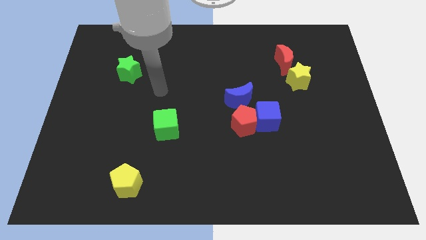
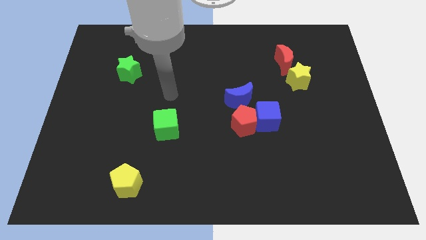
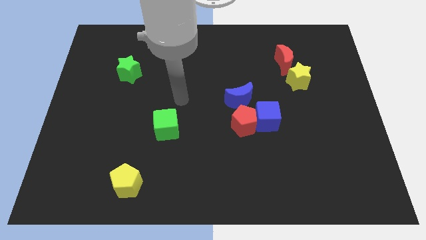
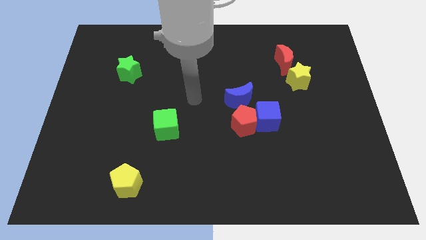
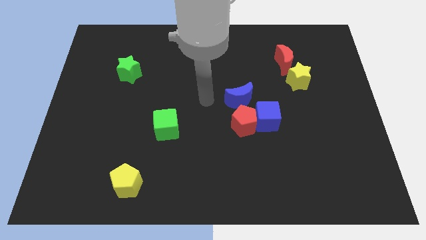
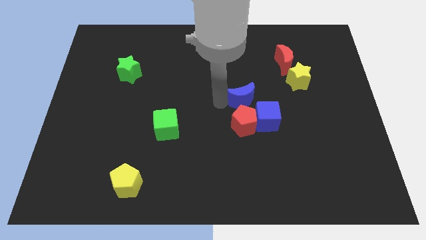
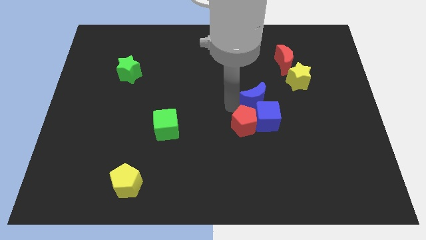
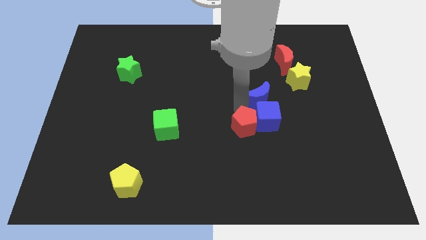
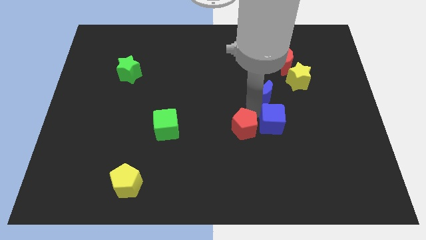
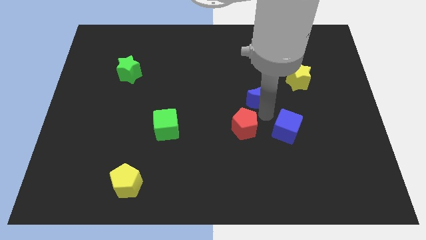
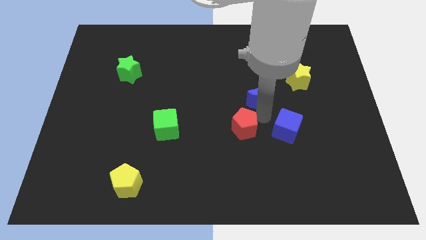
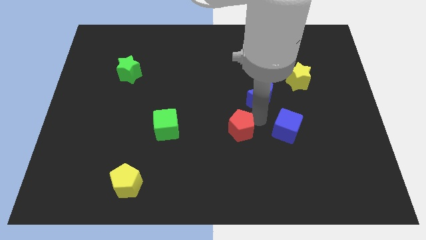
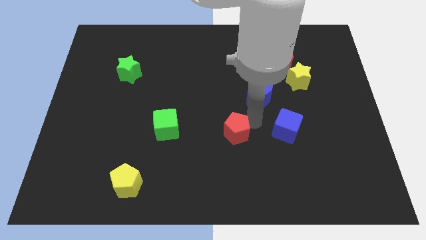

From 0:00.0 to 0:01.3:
pull the red pentagon apart from the blue cube and blue moon

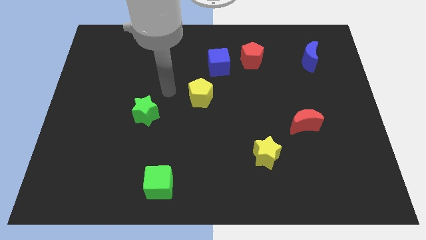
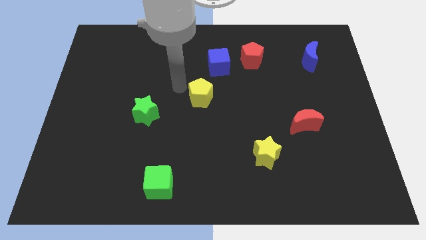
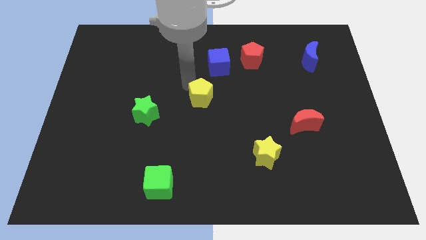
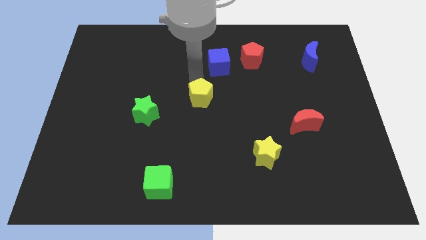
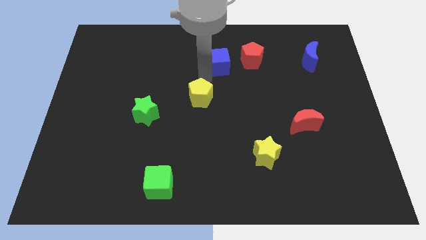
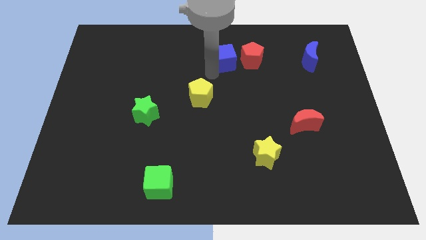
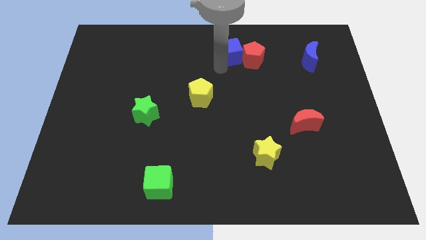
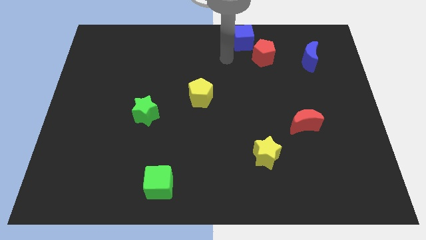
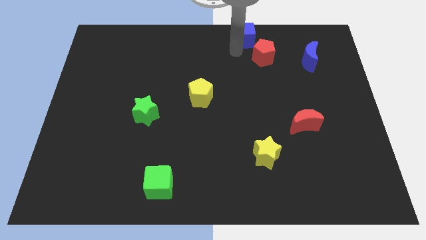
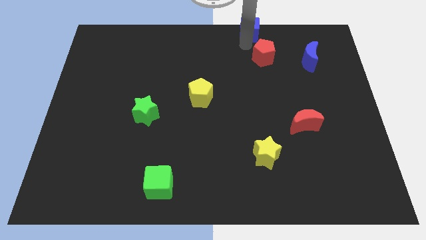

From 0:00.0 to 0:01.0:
pull the red pentagon apart from the blue cube

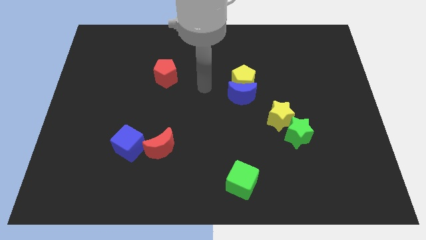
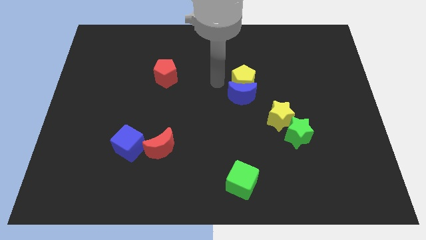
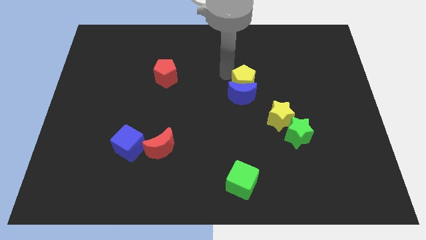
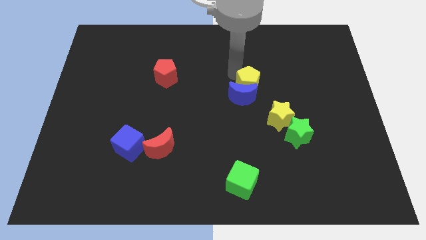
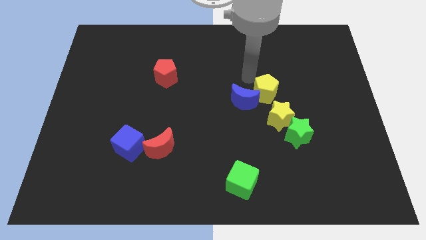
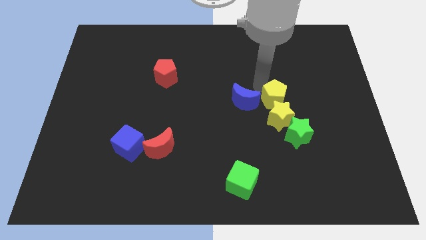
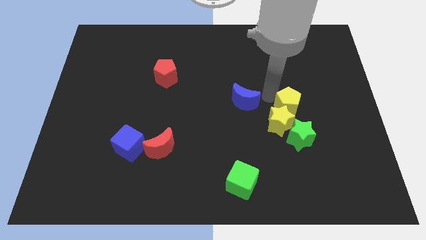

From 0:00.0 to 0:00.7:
move the blue moon away from the yellow pentagon

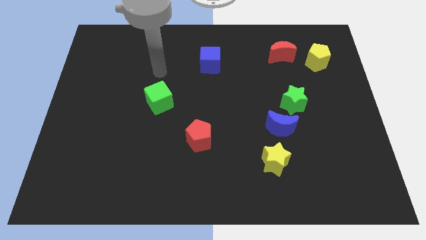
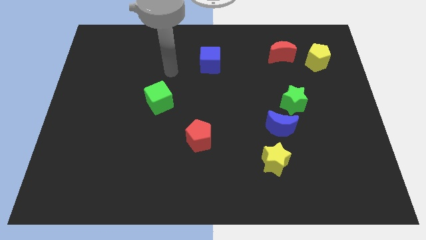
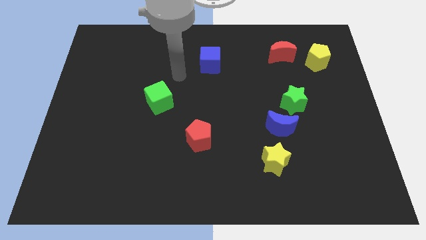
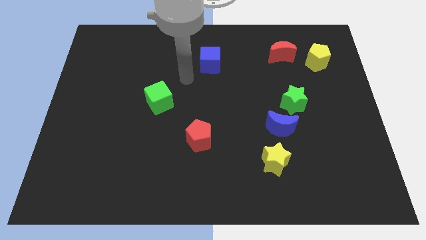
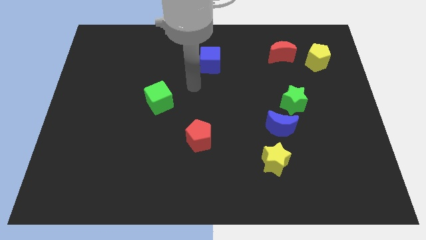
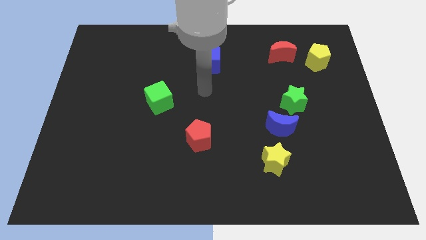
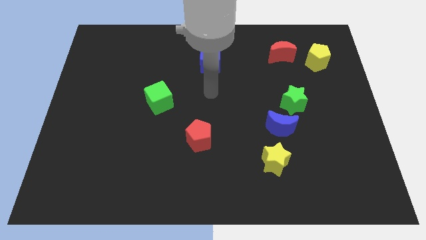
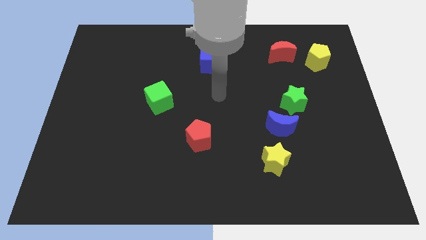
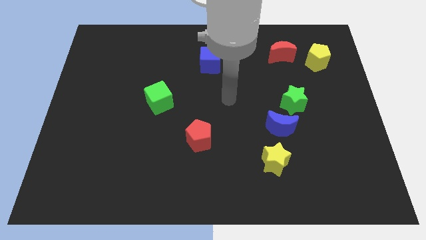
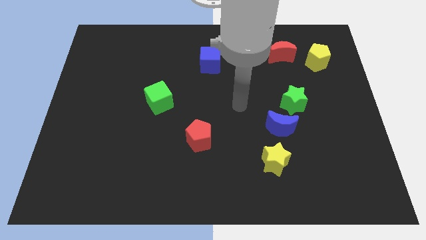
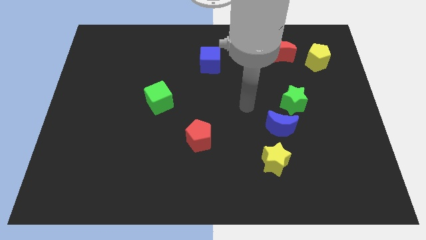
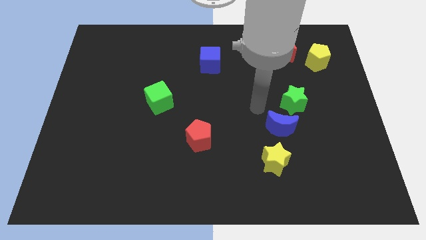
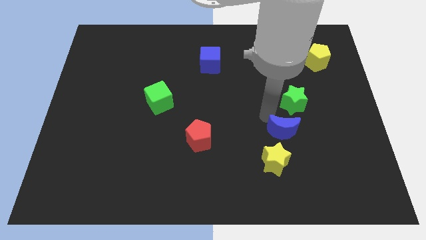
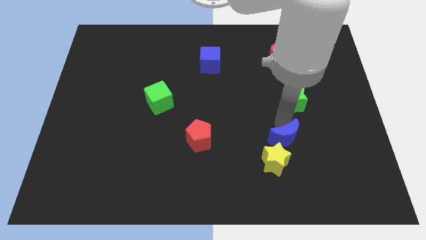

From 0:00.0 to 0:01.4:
move the green star away from the blue moon

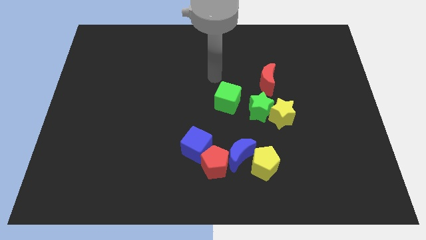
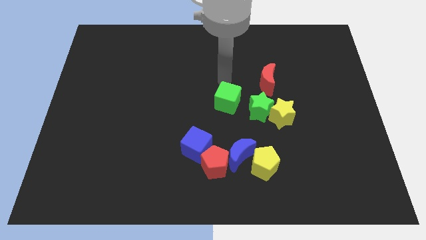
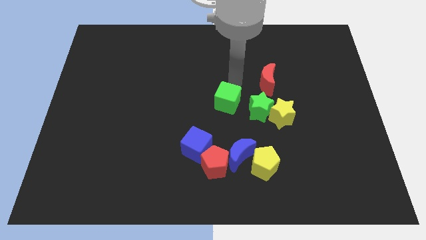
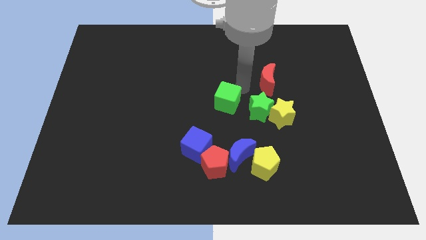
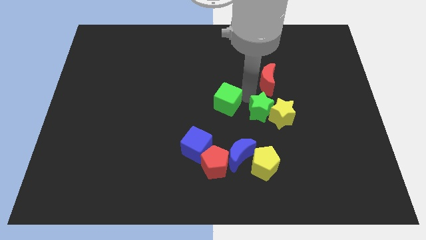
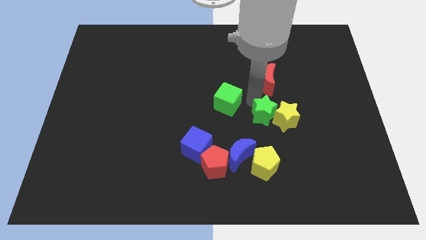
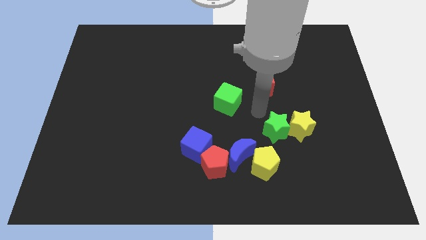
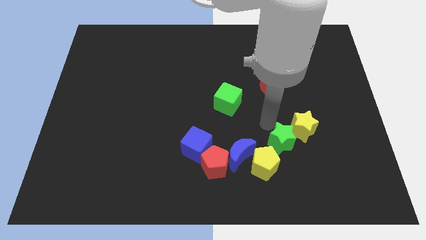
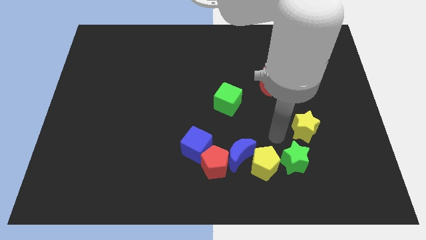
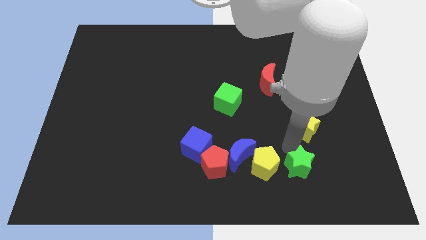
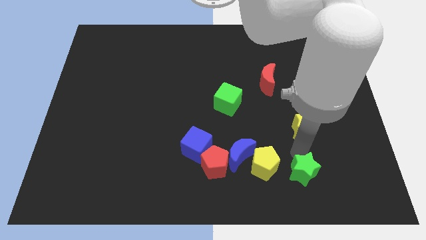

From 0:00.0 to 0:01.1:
pull the yellow star apart from the green star

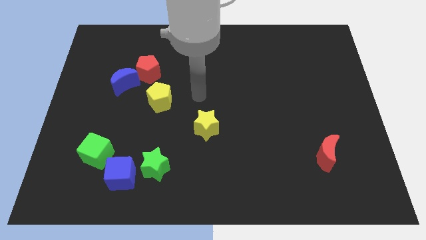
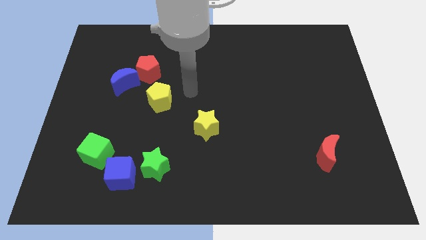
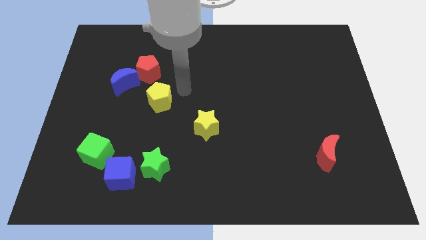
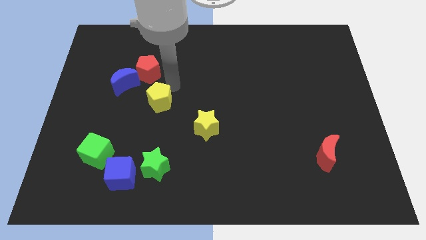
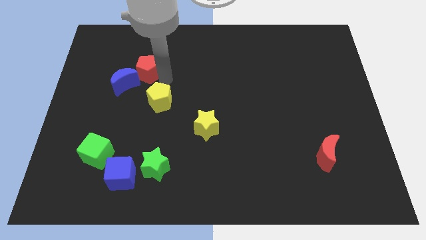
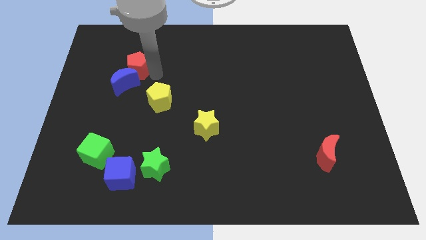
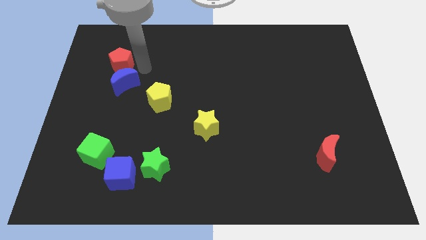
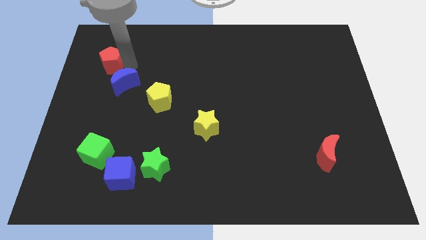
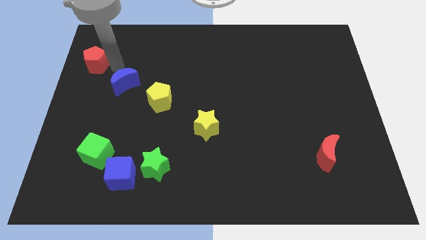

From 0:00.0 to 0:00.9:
separate the blue moon from the red pentagon

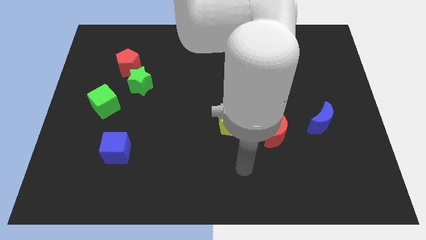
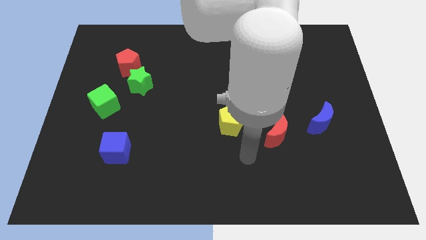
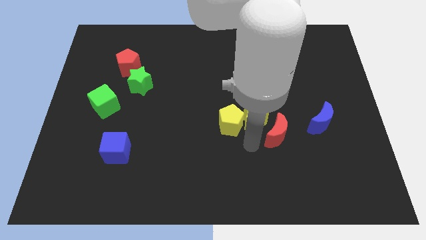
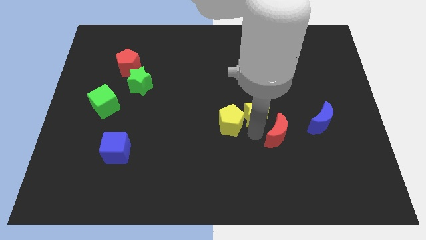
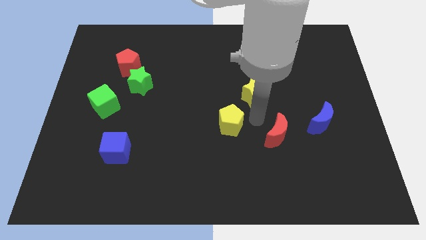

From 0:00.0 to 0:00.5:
separate the yellow pentagon from the yellow star

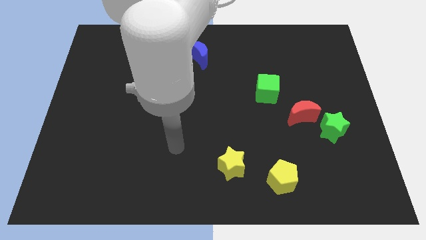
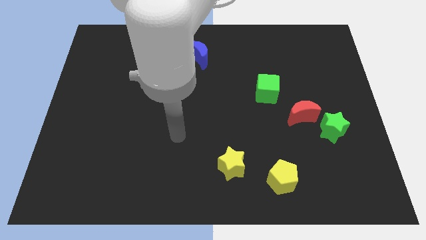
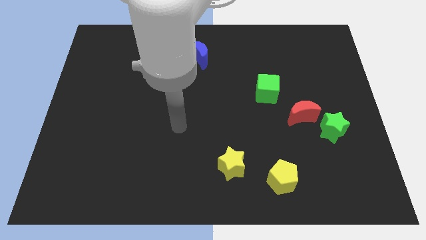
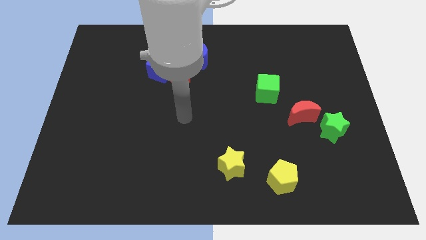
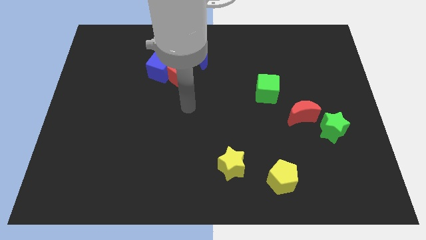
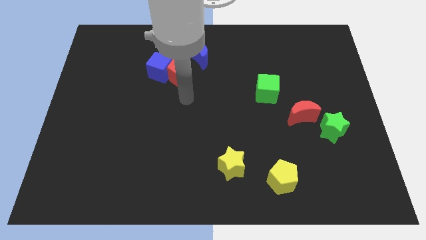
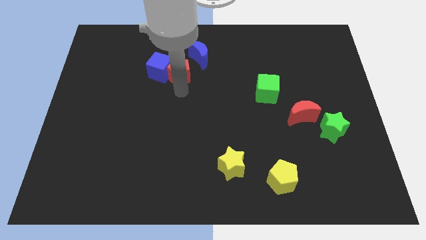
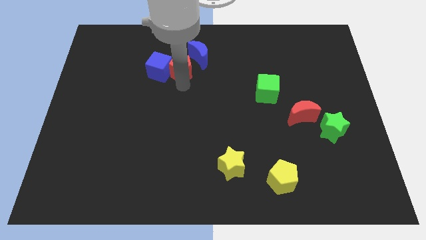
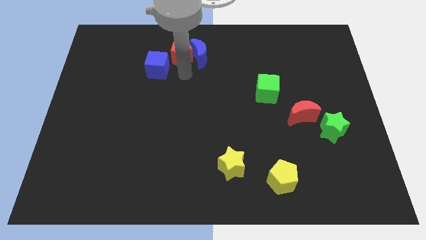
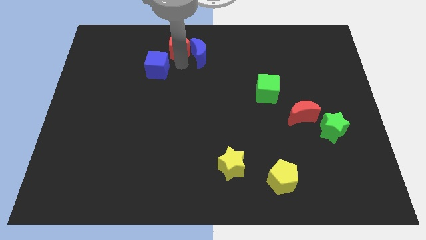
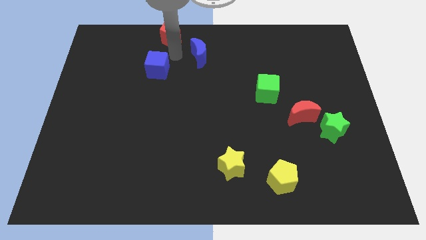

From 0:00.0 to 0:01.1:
move the blue cube away from the red pentagon

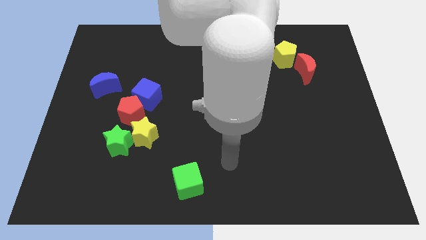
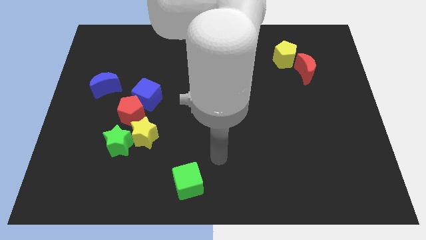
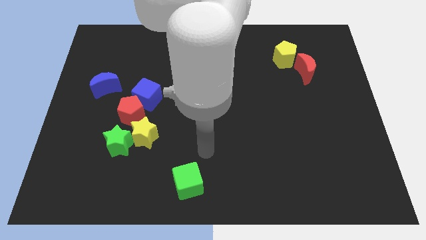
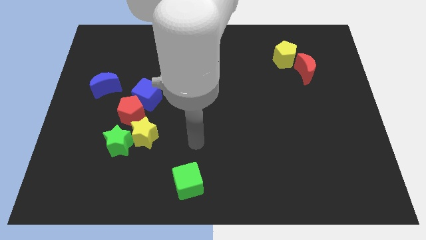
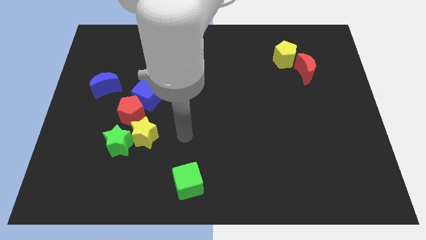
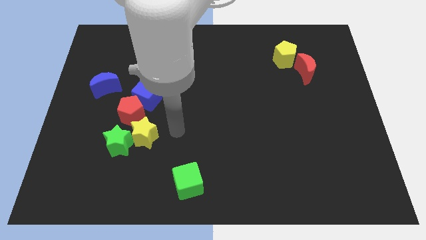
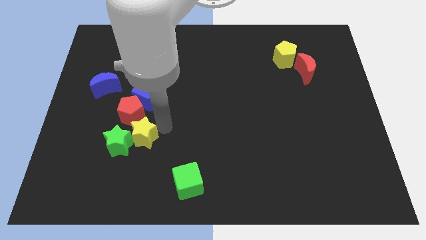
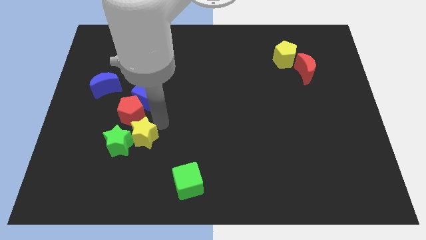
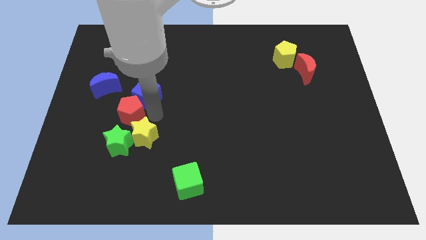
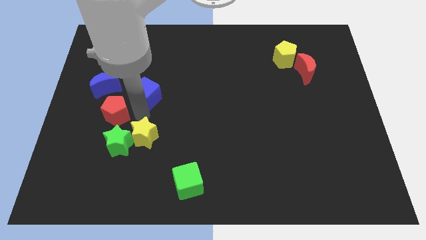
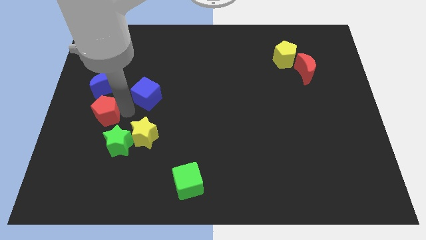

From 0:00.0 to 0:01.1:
pull the blue cube apart from the red pentagon

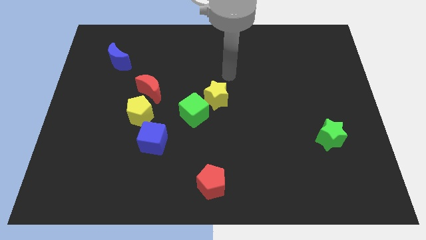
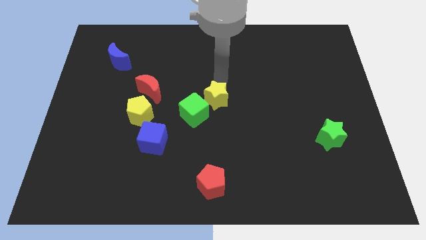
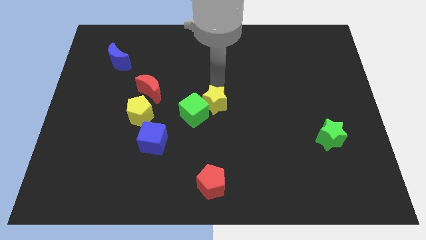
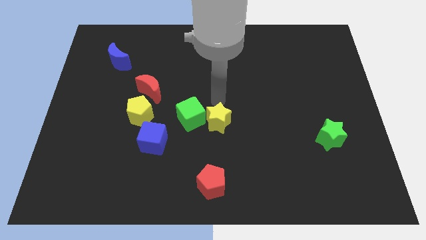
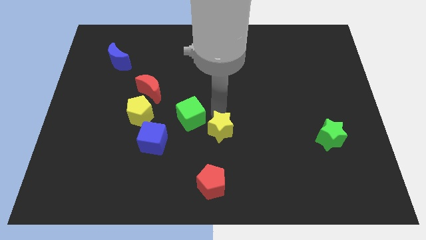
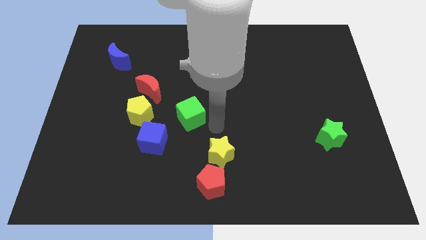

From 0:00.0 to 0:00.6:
pull the green cube apart from the yellow star
